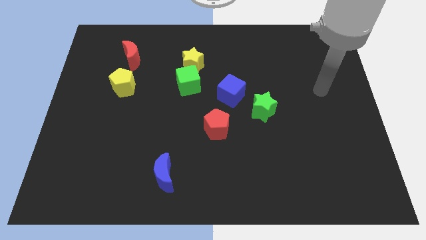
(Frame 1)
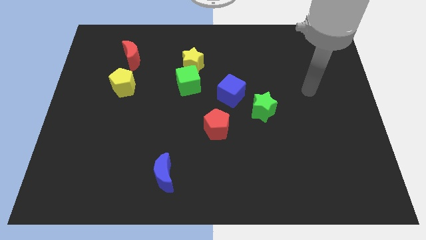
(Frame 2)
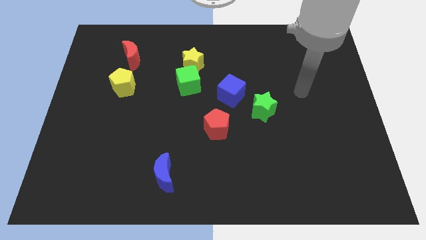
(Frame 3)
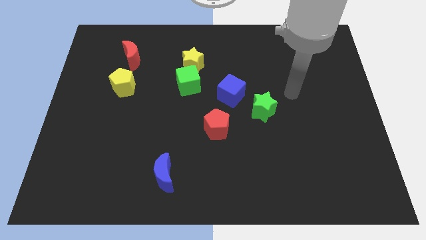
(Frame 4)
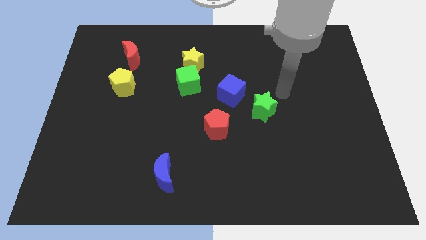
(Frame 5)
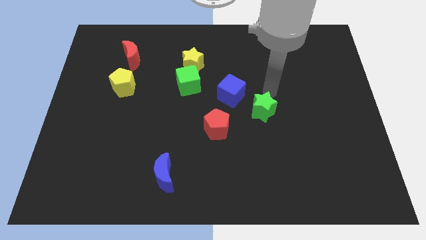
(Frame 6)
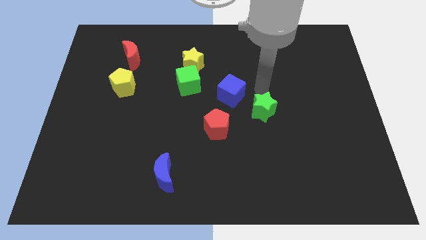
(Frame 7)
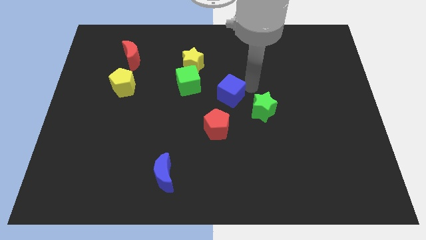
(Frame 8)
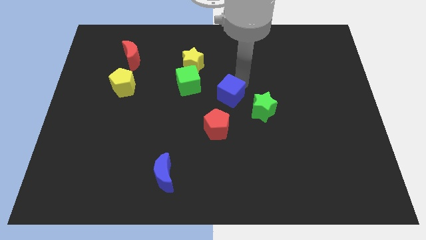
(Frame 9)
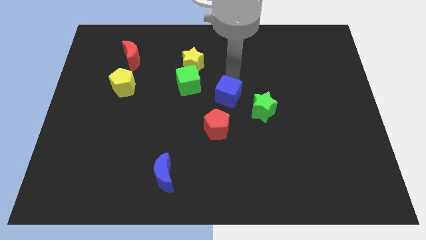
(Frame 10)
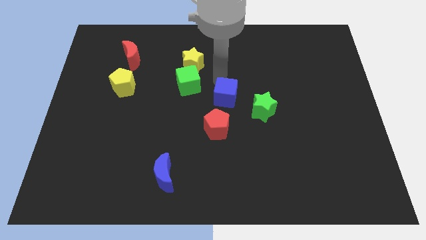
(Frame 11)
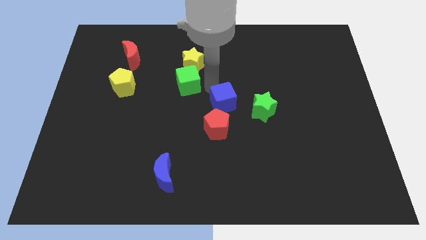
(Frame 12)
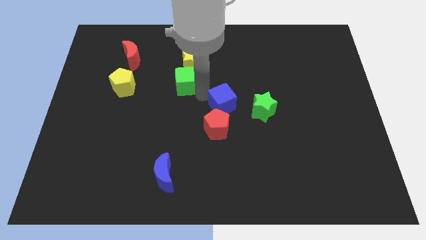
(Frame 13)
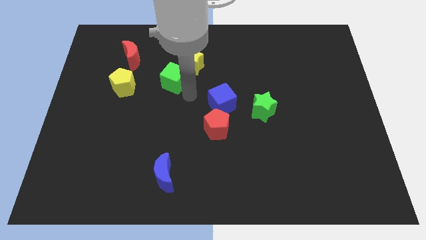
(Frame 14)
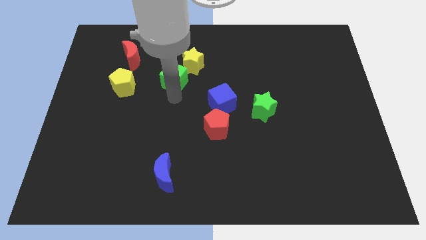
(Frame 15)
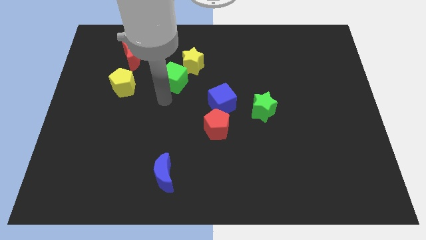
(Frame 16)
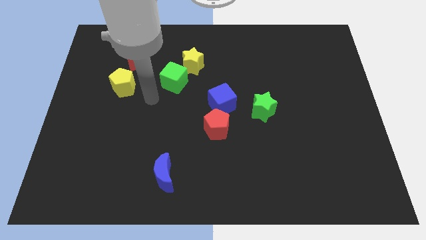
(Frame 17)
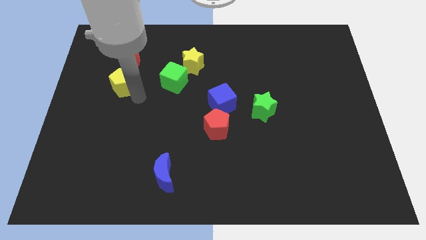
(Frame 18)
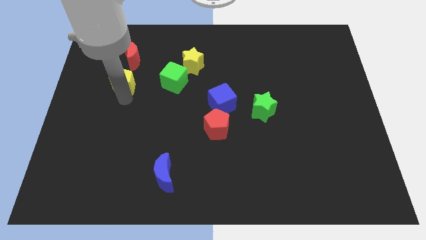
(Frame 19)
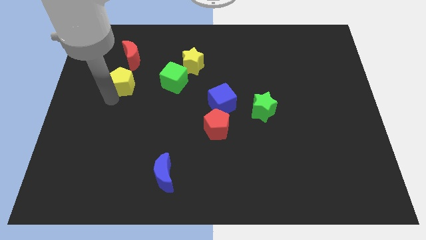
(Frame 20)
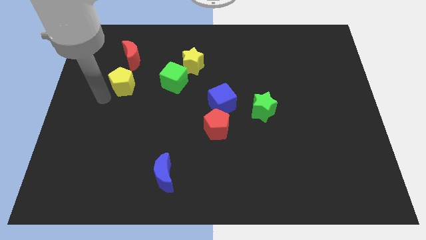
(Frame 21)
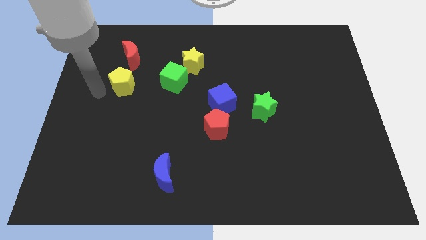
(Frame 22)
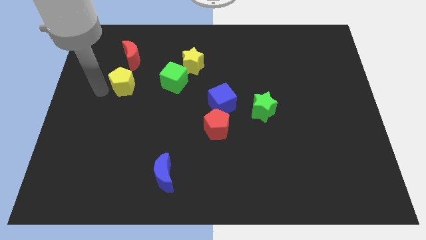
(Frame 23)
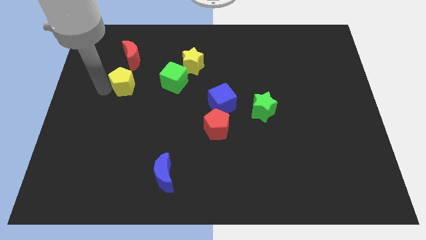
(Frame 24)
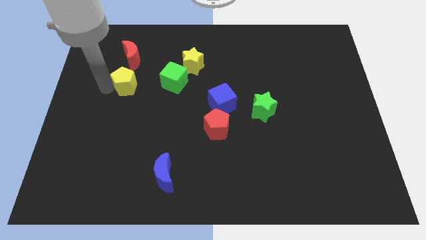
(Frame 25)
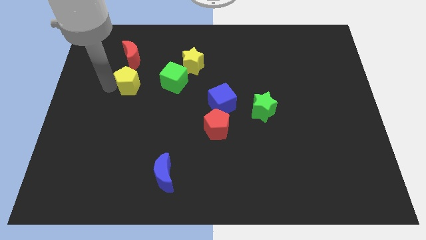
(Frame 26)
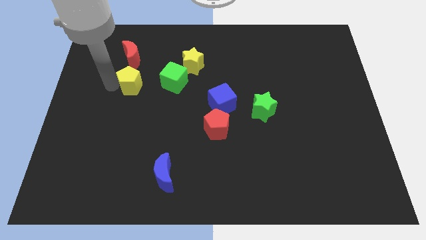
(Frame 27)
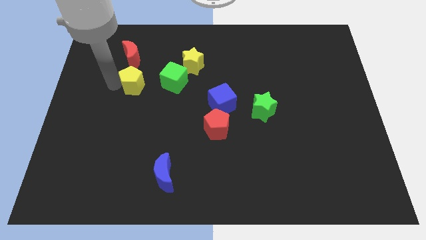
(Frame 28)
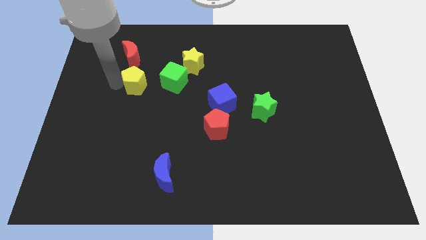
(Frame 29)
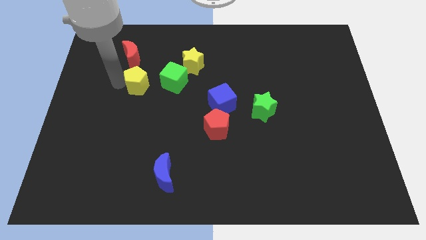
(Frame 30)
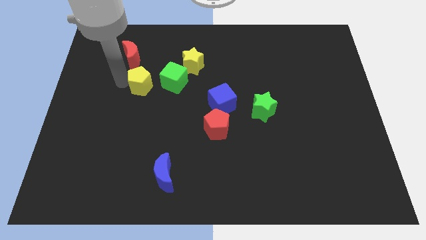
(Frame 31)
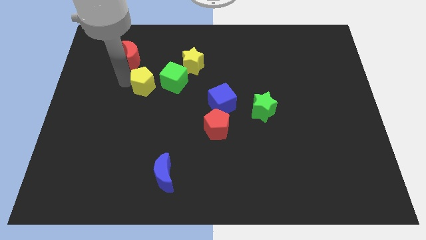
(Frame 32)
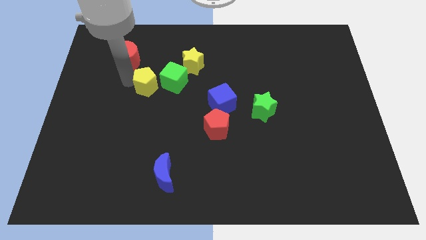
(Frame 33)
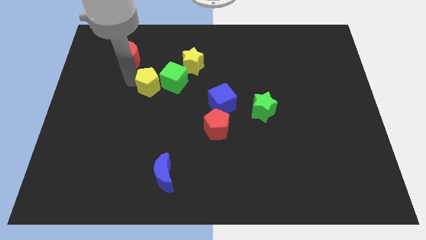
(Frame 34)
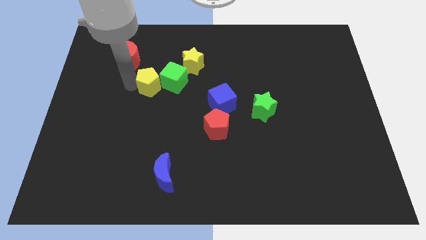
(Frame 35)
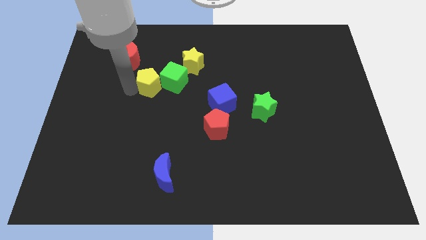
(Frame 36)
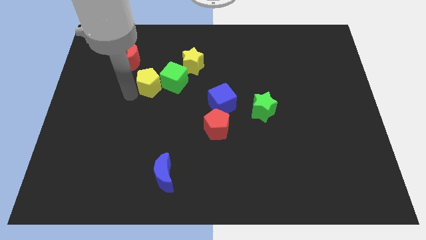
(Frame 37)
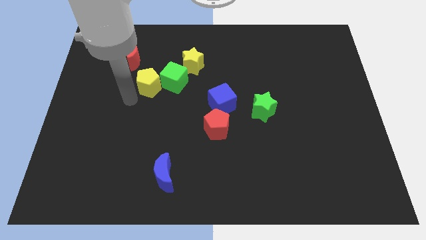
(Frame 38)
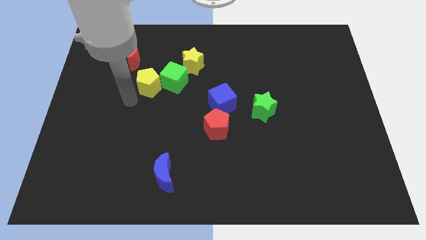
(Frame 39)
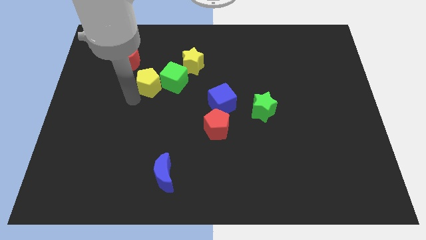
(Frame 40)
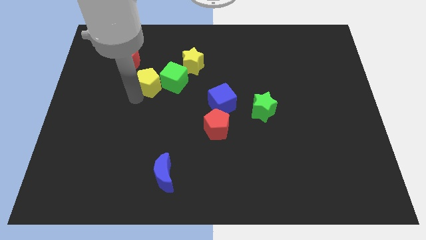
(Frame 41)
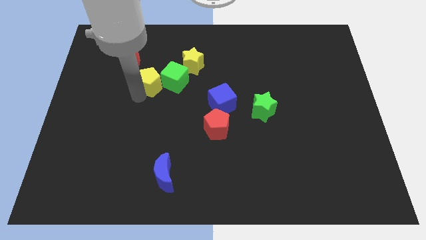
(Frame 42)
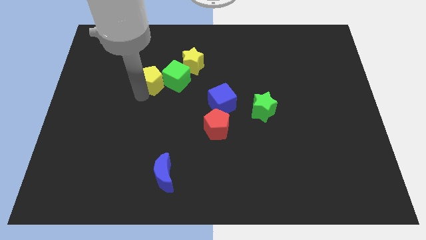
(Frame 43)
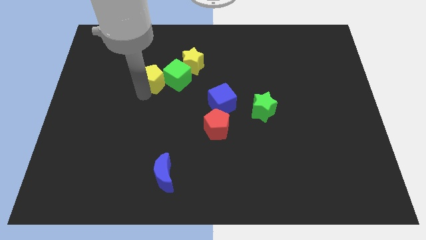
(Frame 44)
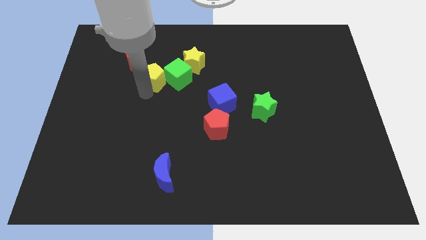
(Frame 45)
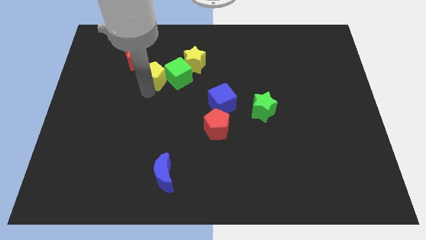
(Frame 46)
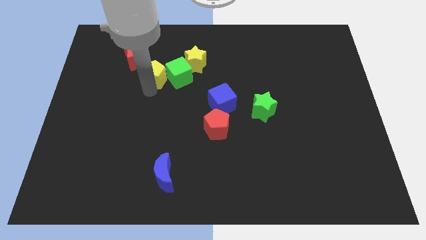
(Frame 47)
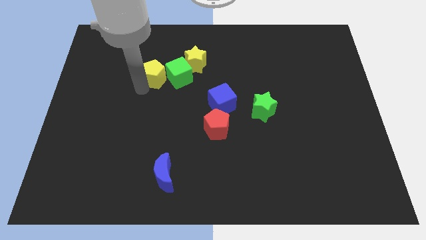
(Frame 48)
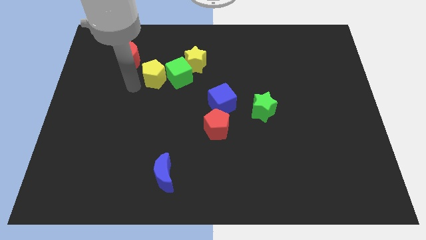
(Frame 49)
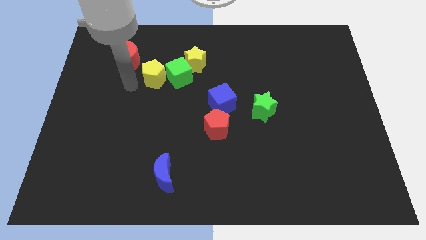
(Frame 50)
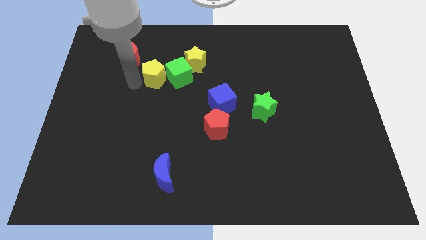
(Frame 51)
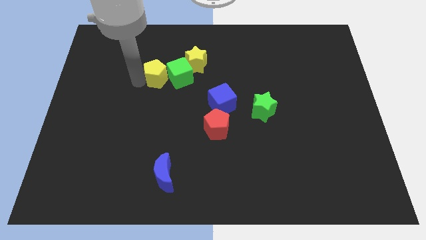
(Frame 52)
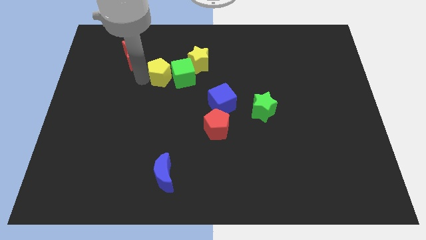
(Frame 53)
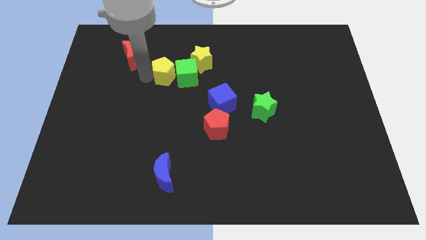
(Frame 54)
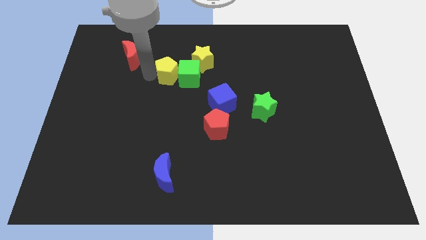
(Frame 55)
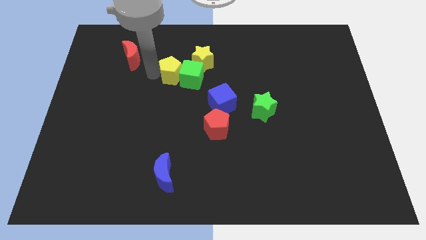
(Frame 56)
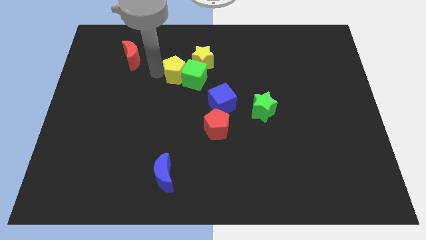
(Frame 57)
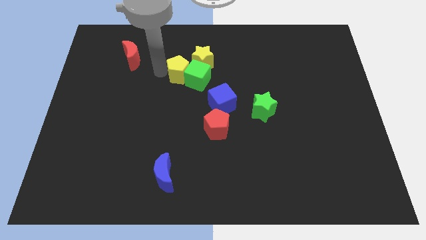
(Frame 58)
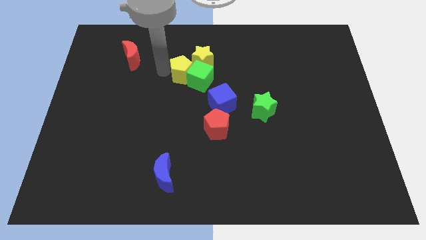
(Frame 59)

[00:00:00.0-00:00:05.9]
slide the yellow pentagon to the yellow star

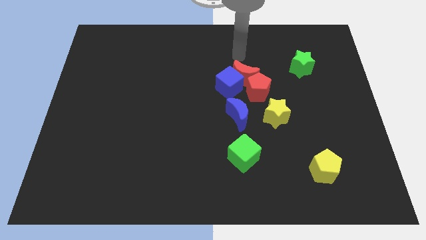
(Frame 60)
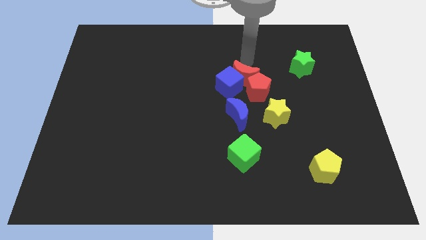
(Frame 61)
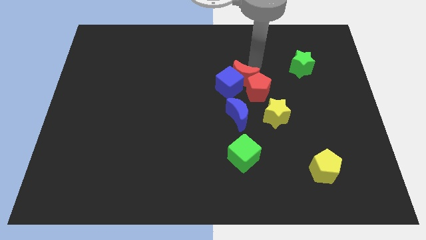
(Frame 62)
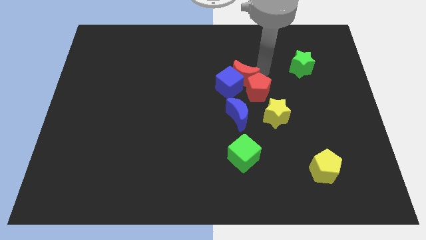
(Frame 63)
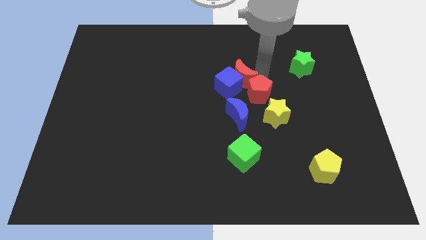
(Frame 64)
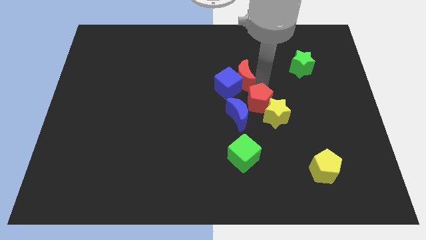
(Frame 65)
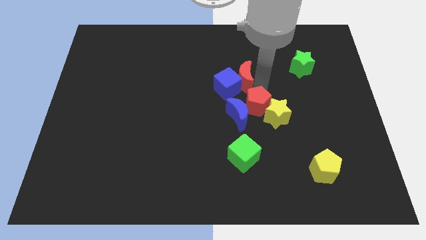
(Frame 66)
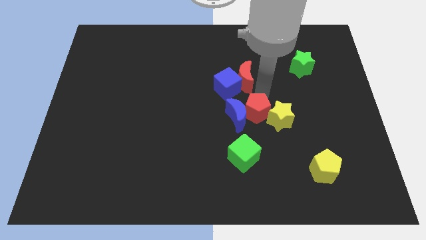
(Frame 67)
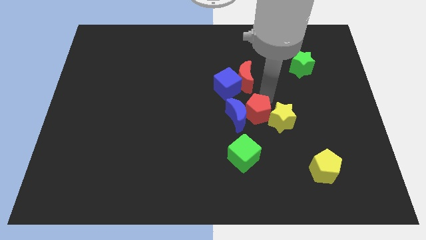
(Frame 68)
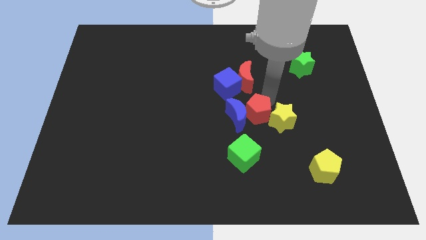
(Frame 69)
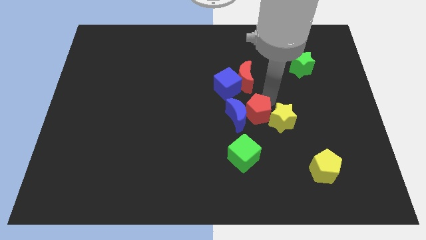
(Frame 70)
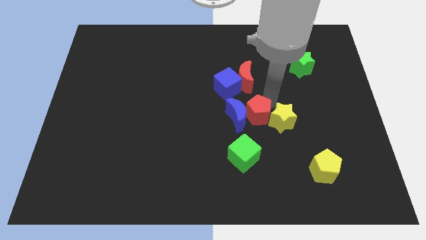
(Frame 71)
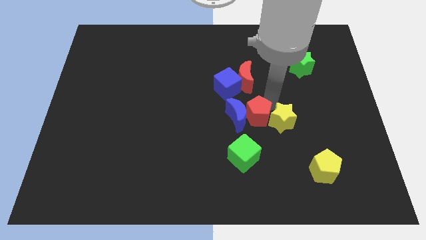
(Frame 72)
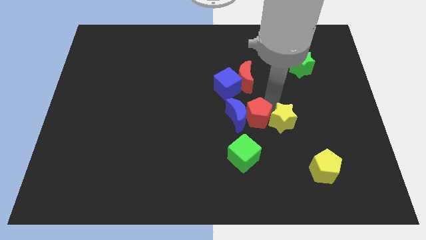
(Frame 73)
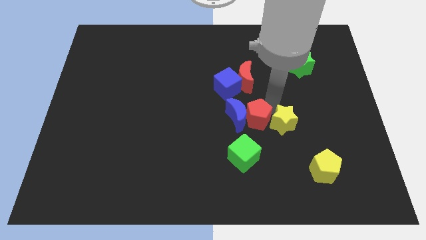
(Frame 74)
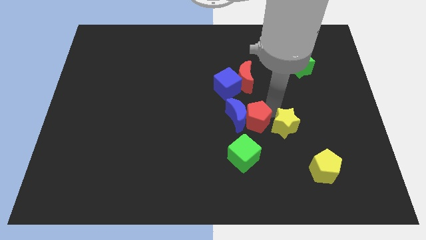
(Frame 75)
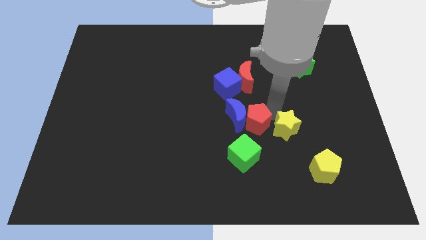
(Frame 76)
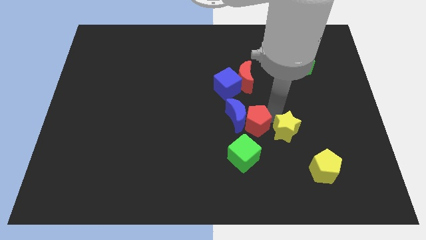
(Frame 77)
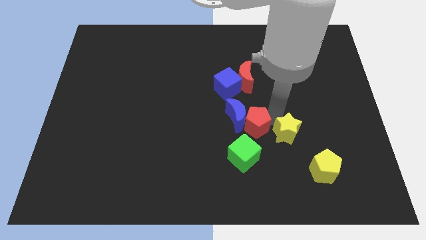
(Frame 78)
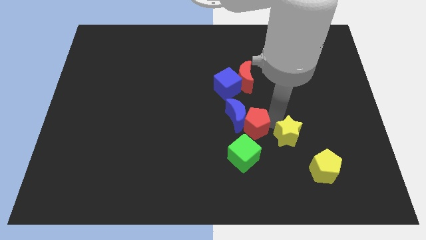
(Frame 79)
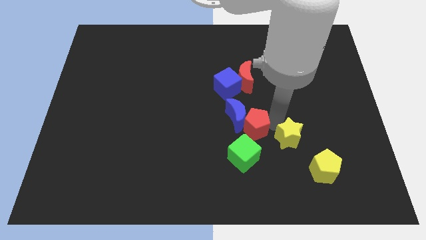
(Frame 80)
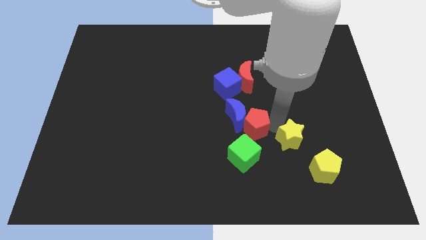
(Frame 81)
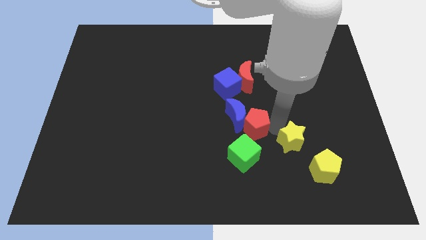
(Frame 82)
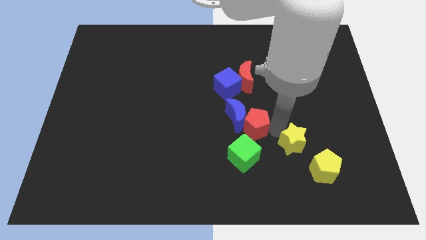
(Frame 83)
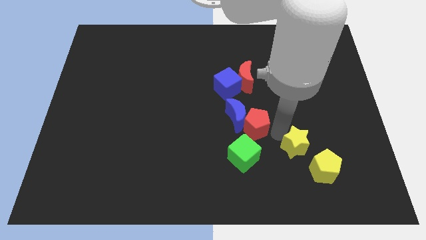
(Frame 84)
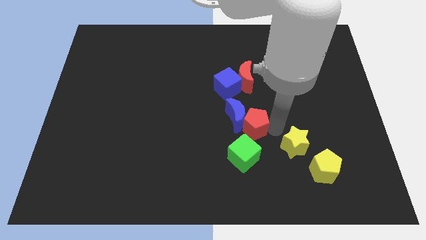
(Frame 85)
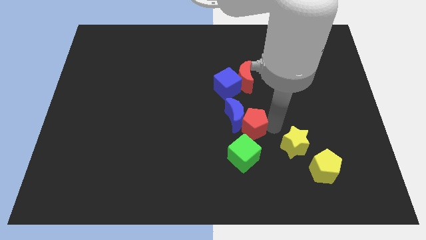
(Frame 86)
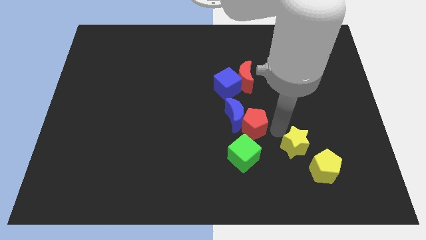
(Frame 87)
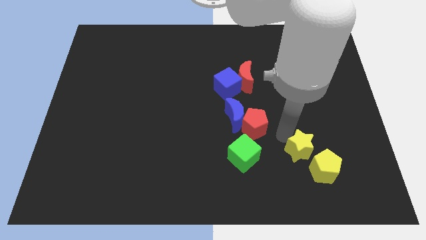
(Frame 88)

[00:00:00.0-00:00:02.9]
put the yellow star close to the yellow pentagon
